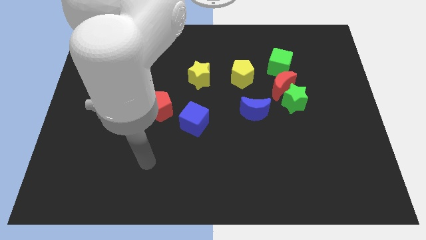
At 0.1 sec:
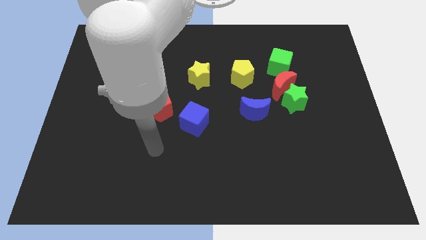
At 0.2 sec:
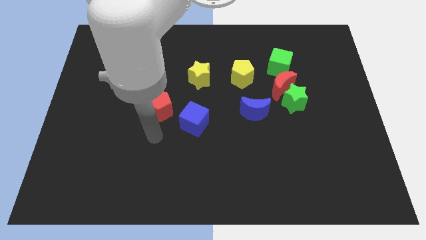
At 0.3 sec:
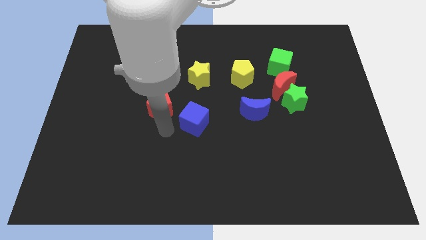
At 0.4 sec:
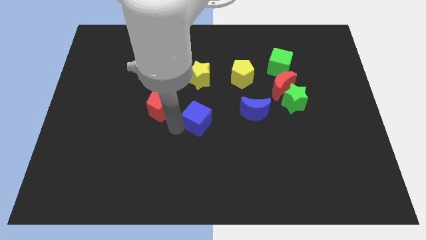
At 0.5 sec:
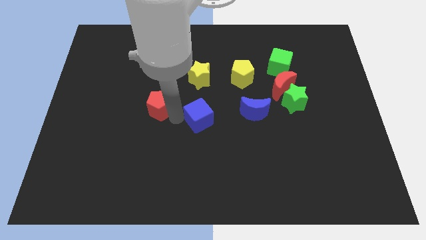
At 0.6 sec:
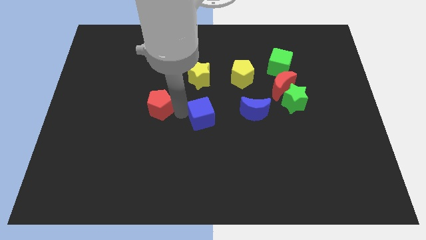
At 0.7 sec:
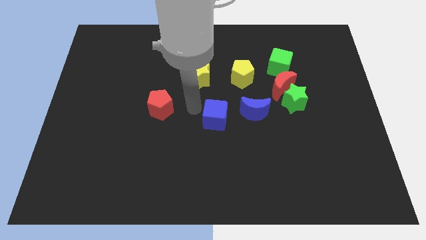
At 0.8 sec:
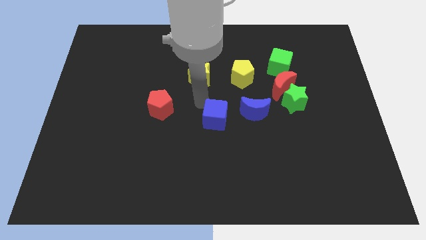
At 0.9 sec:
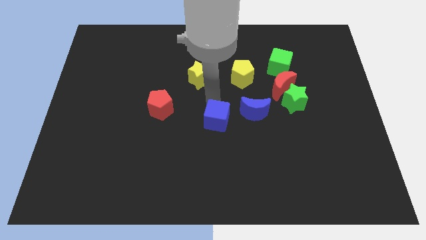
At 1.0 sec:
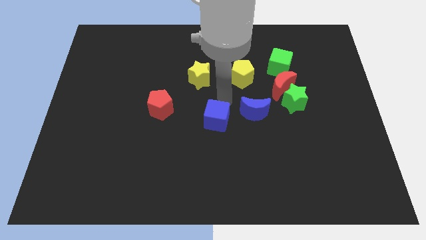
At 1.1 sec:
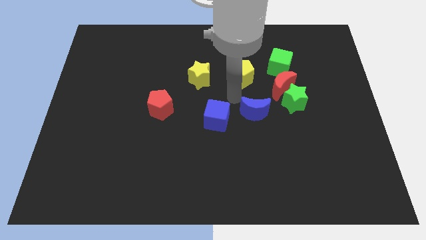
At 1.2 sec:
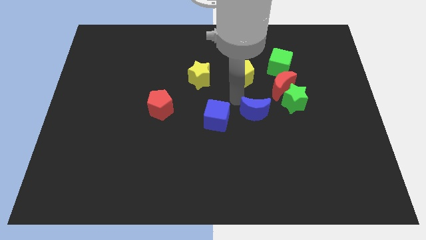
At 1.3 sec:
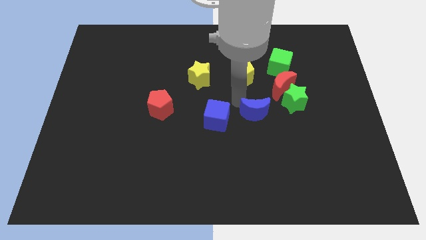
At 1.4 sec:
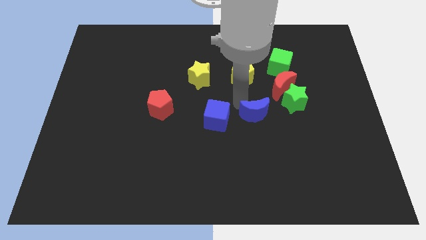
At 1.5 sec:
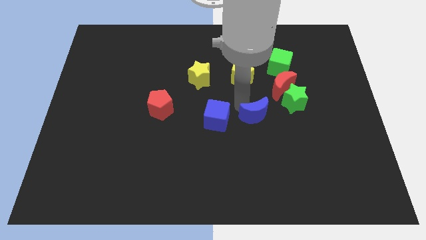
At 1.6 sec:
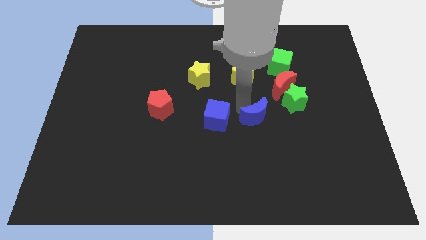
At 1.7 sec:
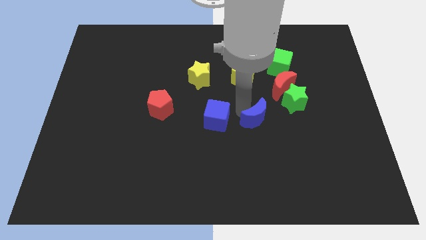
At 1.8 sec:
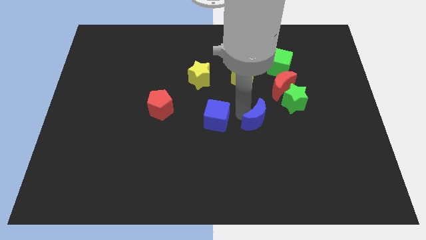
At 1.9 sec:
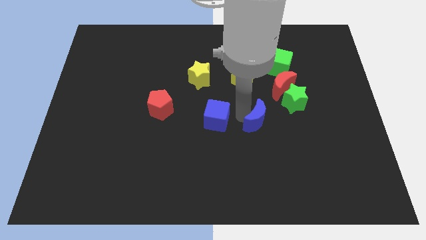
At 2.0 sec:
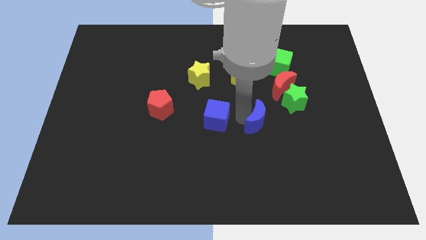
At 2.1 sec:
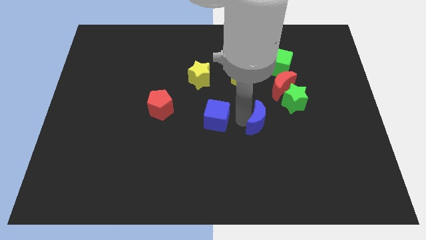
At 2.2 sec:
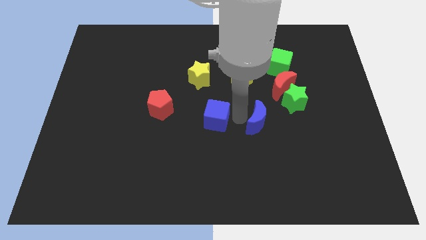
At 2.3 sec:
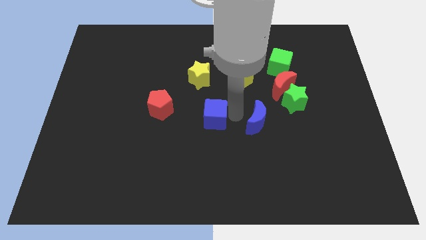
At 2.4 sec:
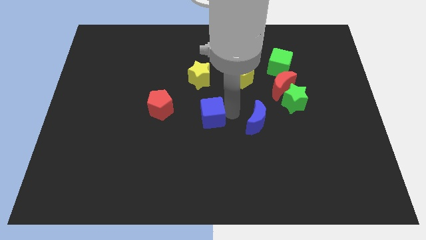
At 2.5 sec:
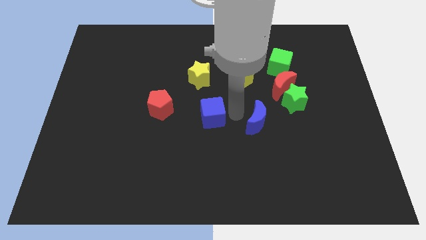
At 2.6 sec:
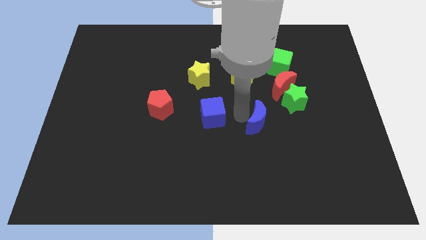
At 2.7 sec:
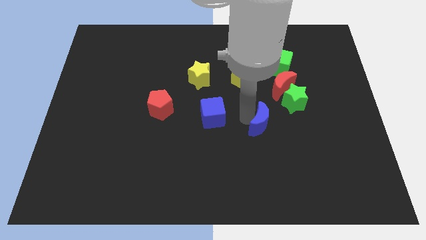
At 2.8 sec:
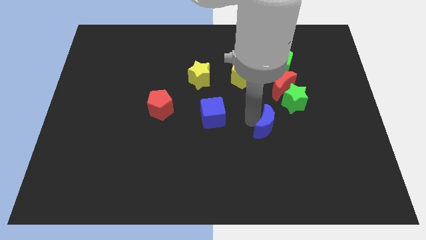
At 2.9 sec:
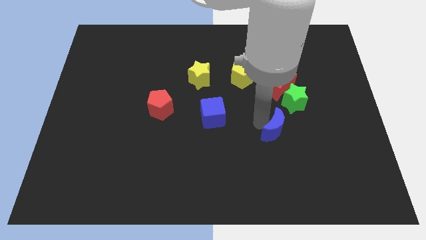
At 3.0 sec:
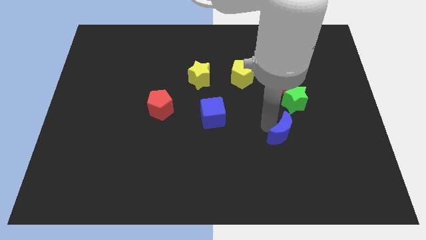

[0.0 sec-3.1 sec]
move the blue moon a little bit diagonally downwards and right

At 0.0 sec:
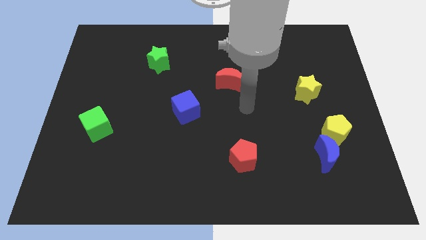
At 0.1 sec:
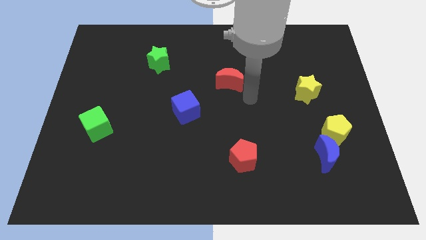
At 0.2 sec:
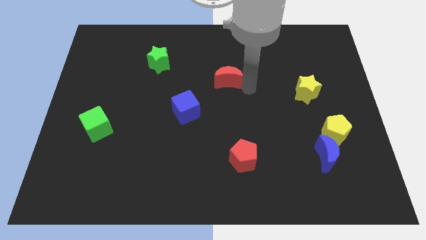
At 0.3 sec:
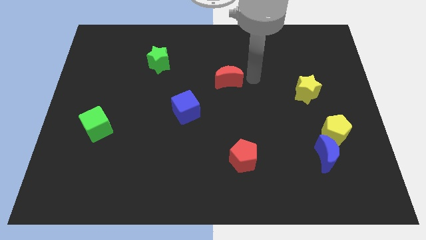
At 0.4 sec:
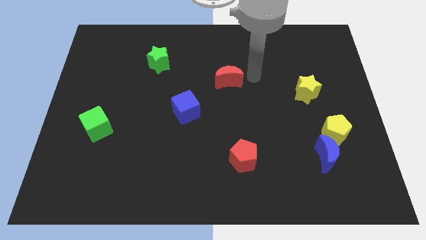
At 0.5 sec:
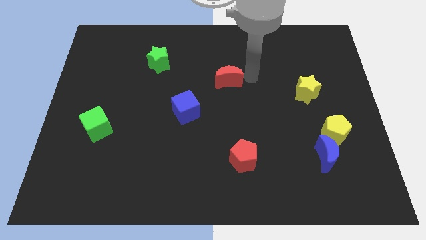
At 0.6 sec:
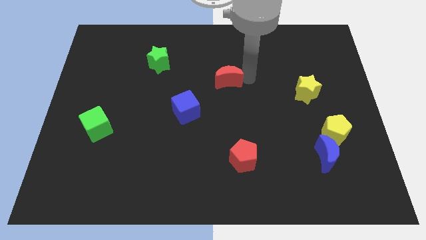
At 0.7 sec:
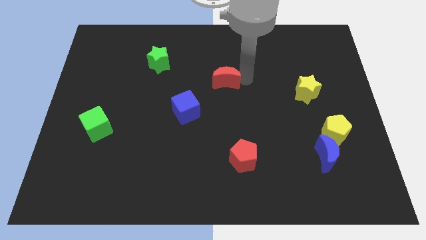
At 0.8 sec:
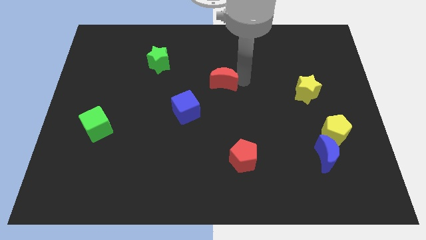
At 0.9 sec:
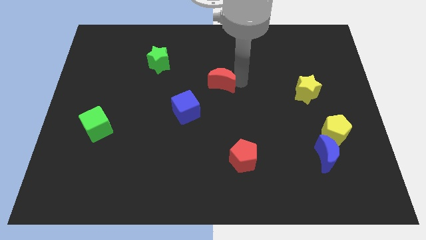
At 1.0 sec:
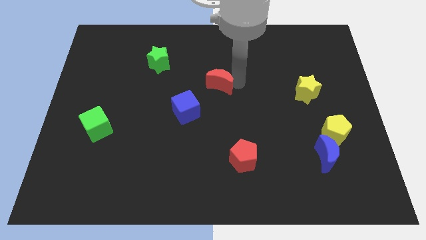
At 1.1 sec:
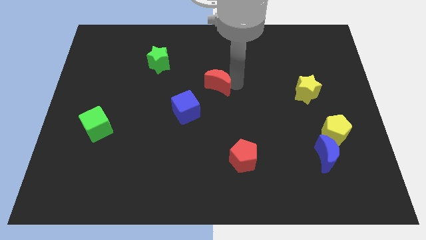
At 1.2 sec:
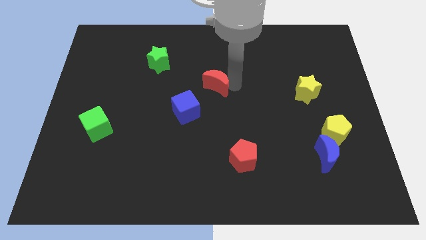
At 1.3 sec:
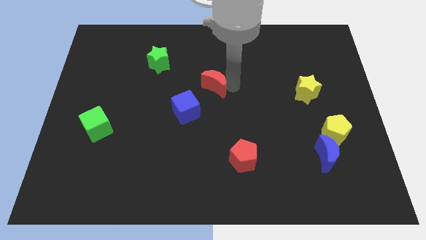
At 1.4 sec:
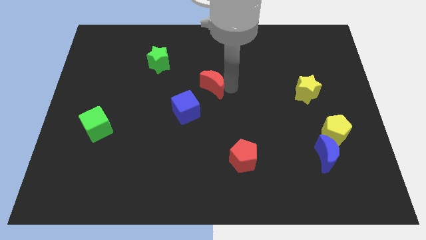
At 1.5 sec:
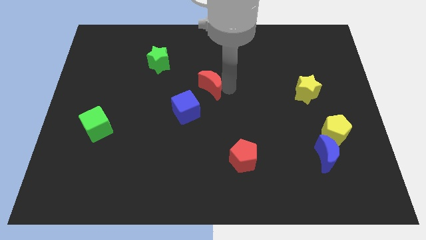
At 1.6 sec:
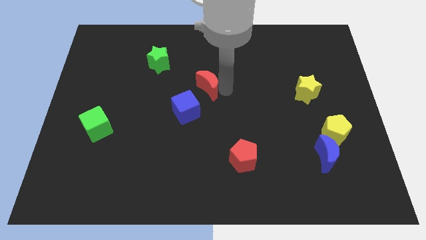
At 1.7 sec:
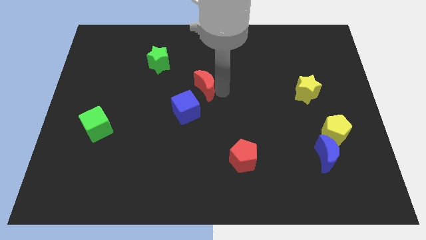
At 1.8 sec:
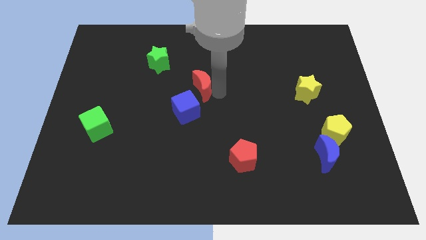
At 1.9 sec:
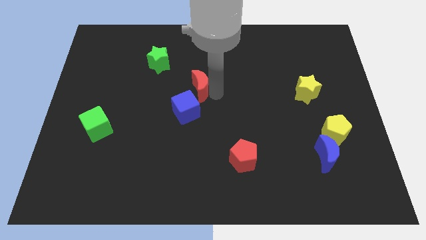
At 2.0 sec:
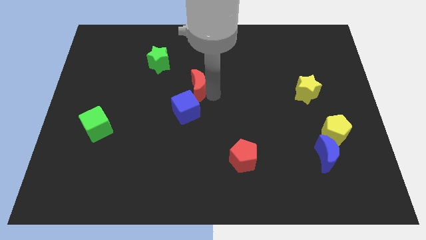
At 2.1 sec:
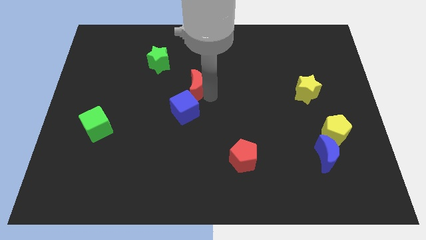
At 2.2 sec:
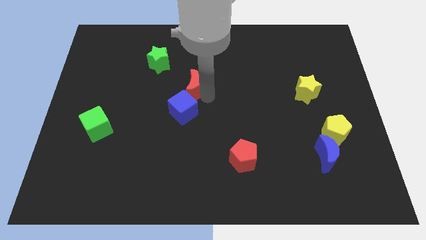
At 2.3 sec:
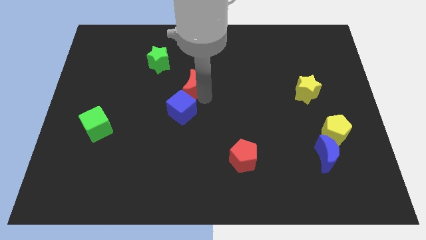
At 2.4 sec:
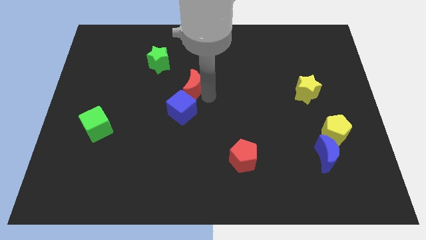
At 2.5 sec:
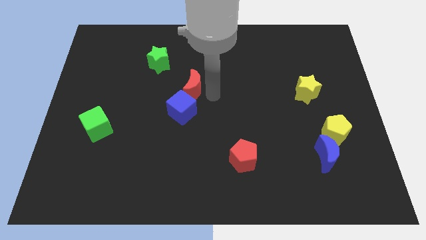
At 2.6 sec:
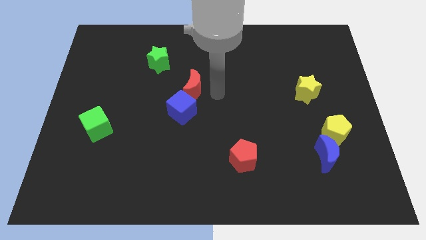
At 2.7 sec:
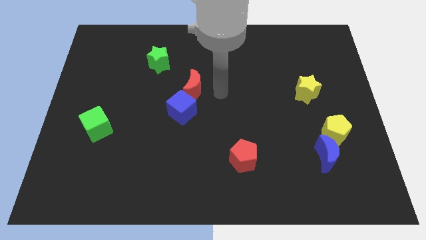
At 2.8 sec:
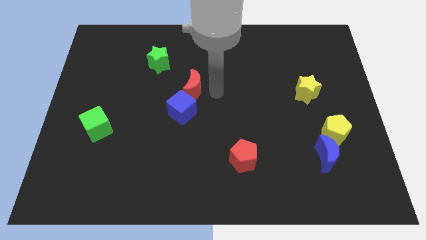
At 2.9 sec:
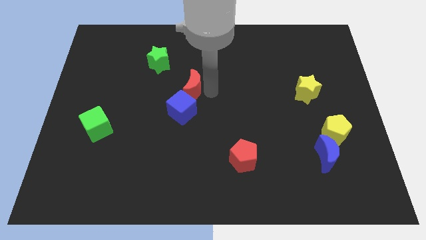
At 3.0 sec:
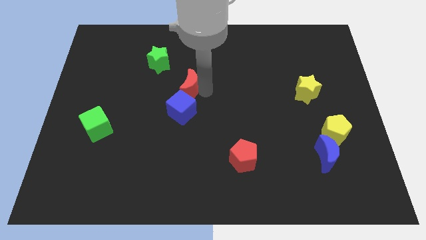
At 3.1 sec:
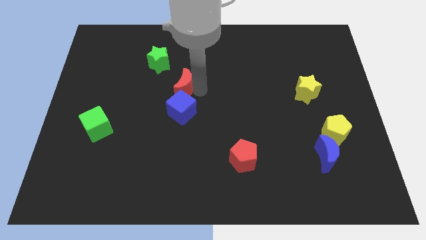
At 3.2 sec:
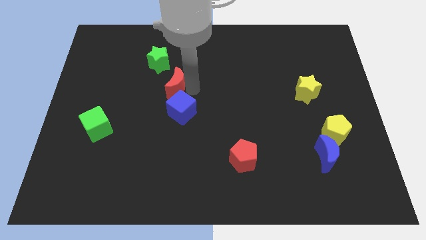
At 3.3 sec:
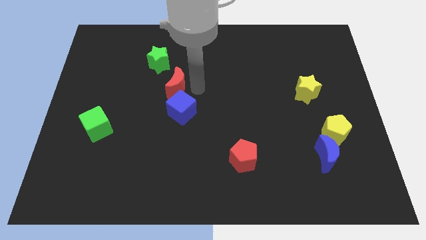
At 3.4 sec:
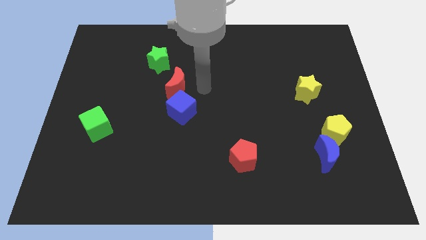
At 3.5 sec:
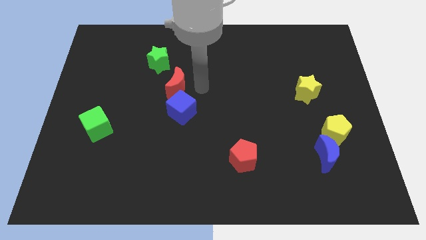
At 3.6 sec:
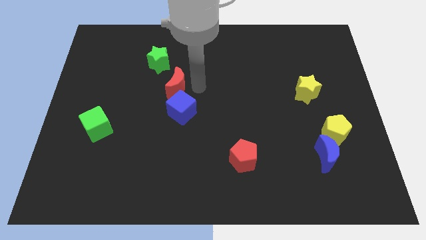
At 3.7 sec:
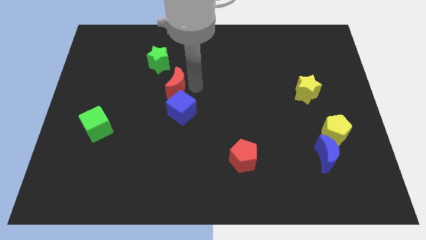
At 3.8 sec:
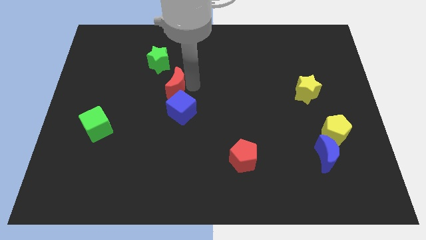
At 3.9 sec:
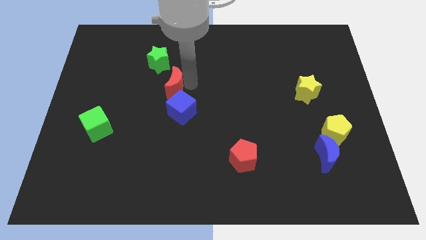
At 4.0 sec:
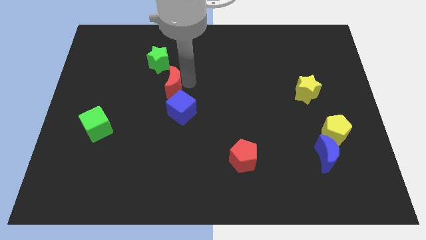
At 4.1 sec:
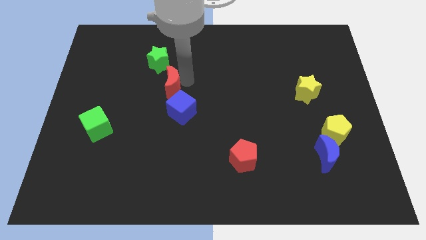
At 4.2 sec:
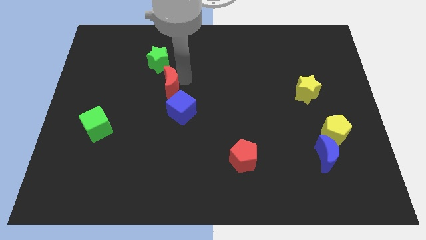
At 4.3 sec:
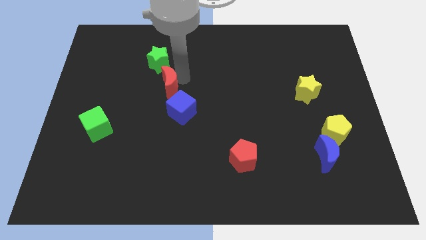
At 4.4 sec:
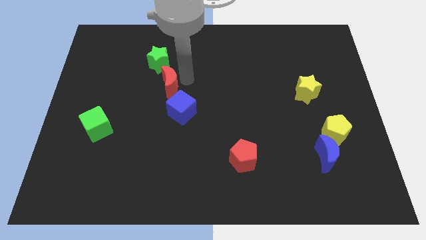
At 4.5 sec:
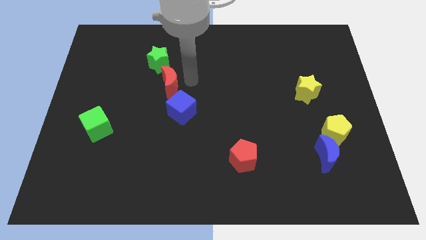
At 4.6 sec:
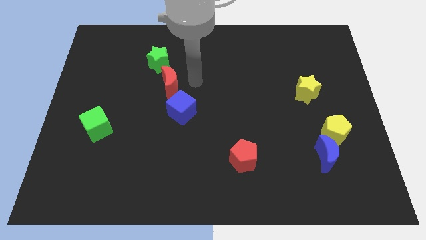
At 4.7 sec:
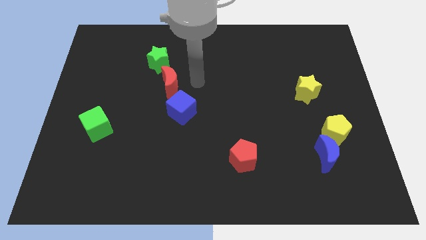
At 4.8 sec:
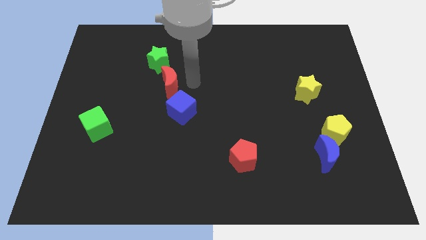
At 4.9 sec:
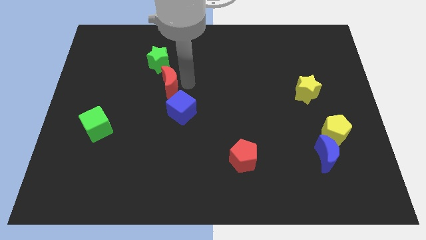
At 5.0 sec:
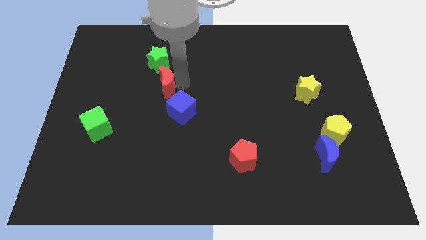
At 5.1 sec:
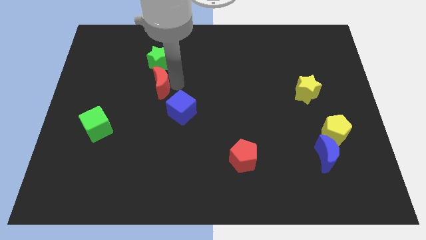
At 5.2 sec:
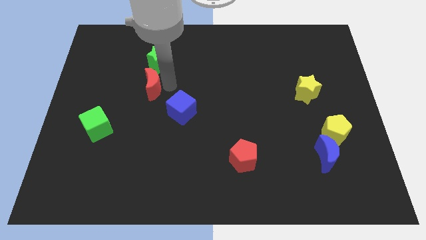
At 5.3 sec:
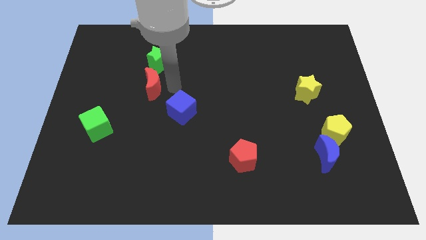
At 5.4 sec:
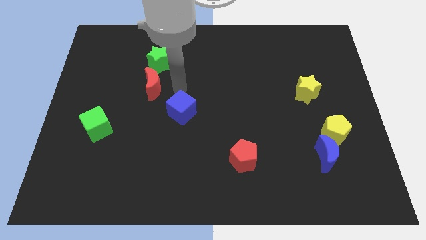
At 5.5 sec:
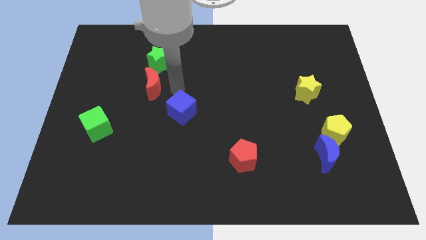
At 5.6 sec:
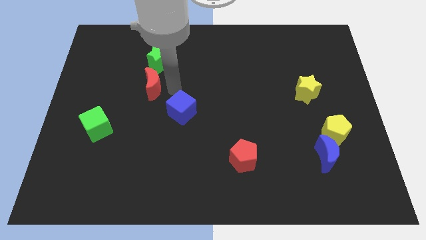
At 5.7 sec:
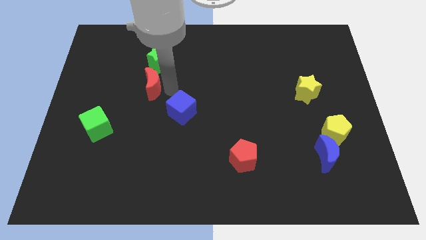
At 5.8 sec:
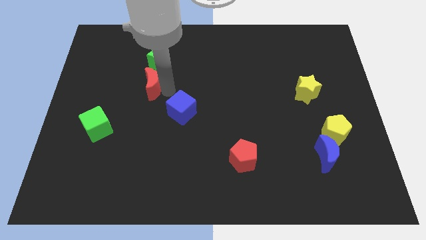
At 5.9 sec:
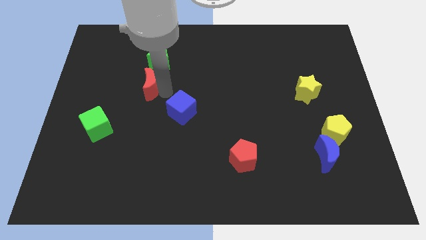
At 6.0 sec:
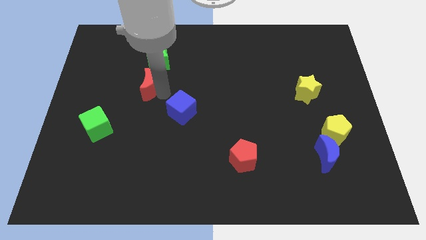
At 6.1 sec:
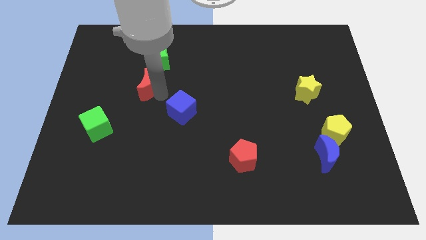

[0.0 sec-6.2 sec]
move the red moon to the left
